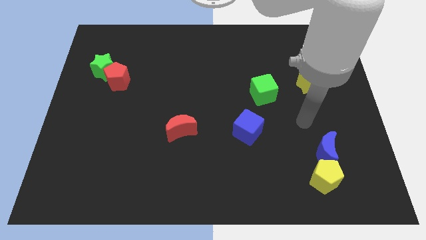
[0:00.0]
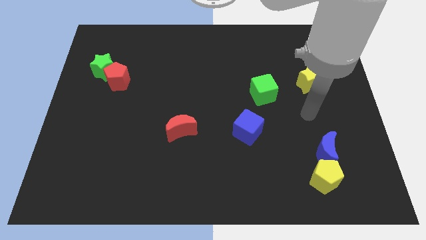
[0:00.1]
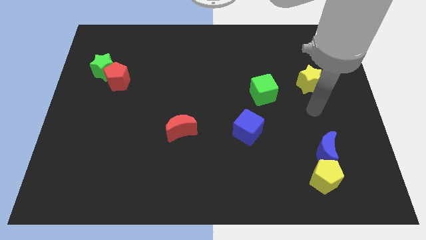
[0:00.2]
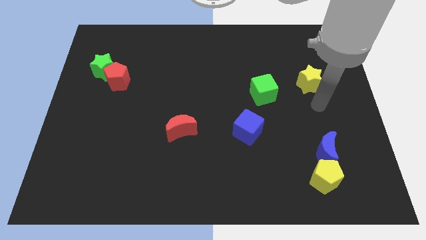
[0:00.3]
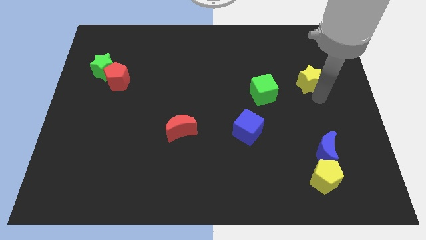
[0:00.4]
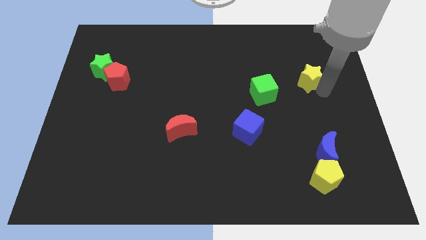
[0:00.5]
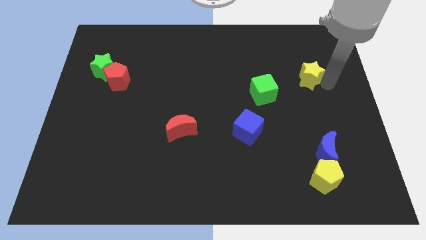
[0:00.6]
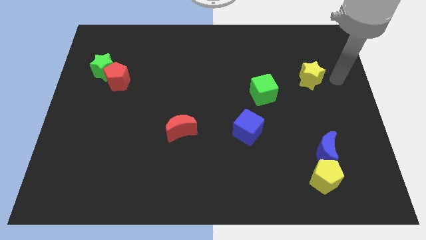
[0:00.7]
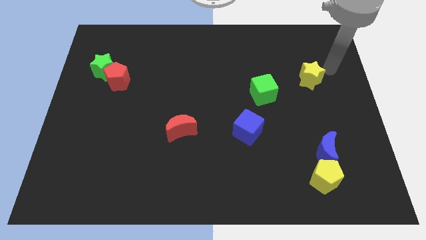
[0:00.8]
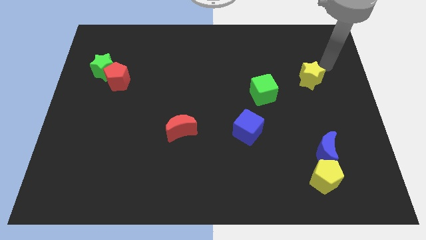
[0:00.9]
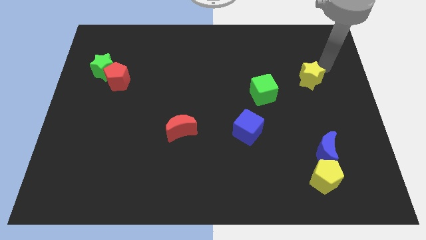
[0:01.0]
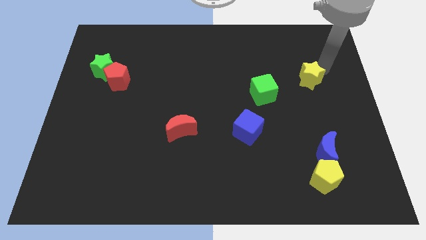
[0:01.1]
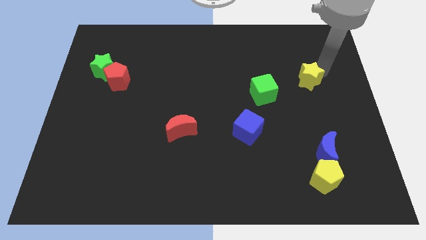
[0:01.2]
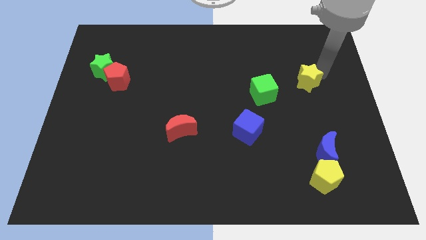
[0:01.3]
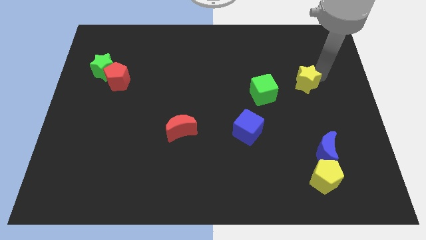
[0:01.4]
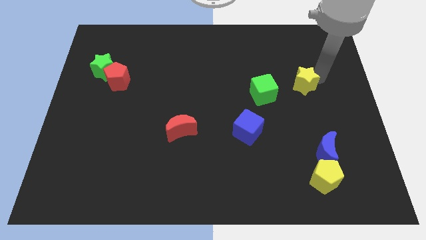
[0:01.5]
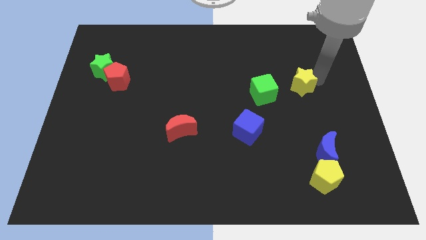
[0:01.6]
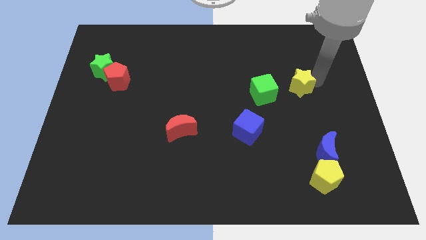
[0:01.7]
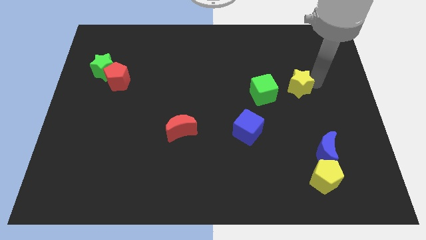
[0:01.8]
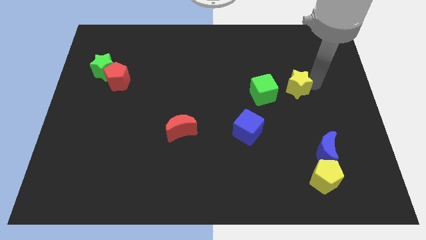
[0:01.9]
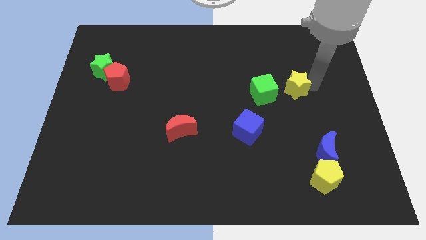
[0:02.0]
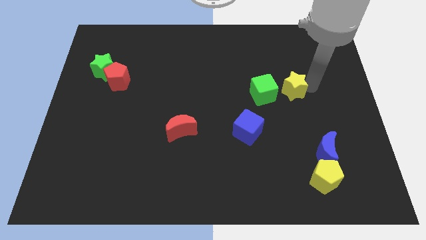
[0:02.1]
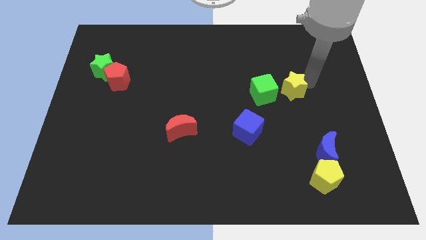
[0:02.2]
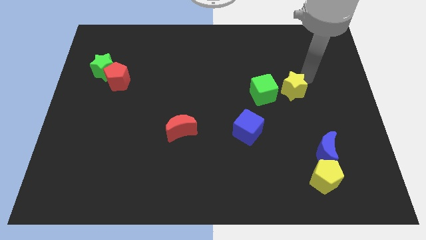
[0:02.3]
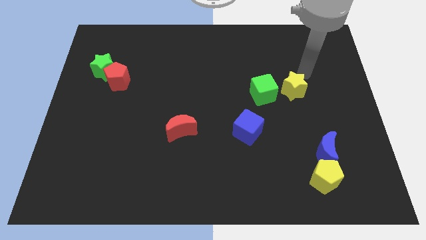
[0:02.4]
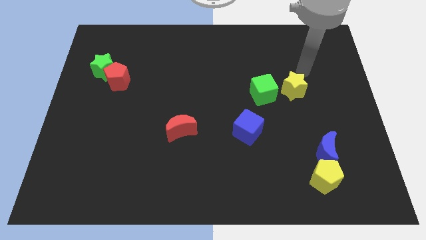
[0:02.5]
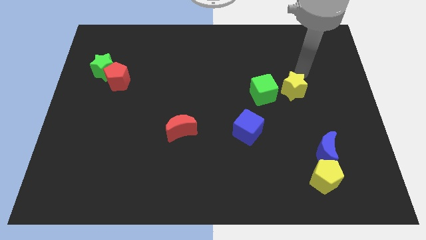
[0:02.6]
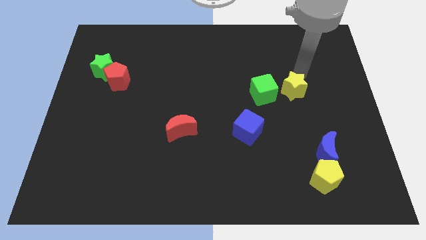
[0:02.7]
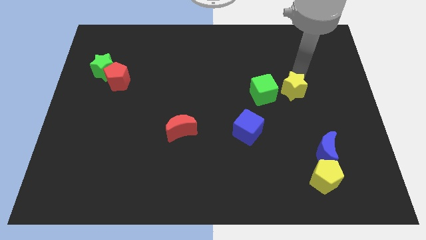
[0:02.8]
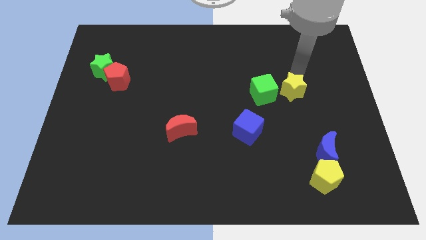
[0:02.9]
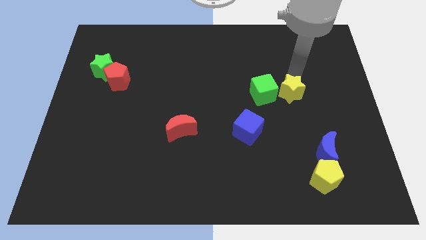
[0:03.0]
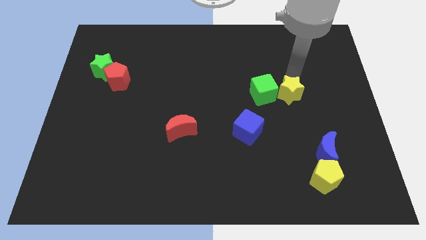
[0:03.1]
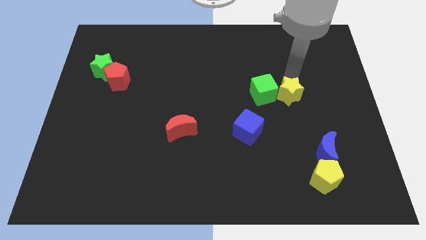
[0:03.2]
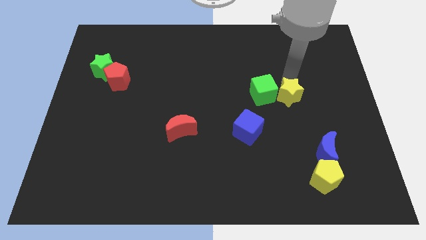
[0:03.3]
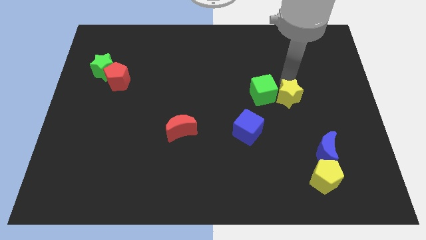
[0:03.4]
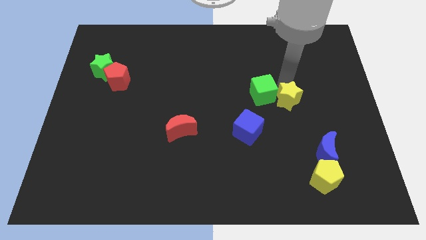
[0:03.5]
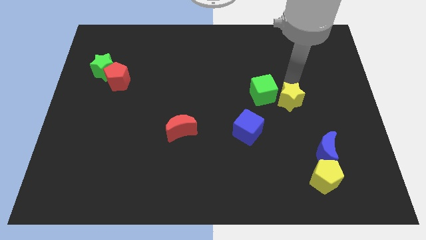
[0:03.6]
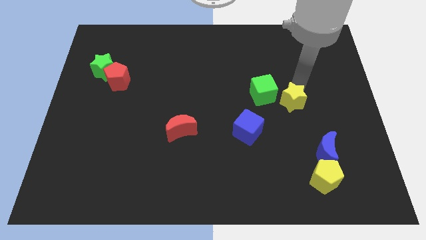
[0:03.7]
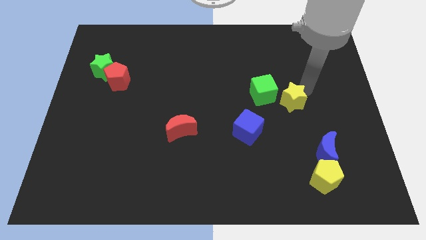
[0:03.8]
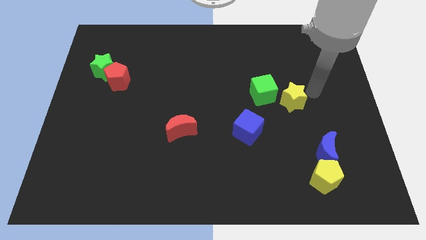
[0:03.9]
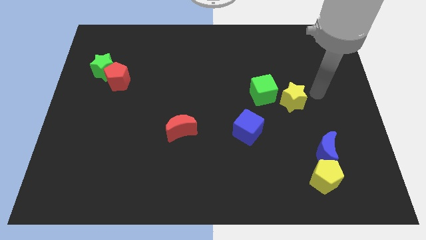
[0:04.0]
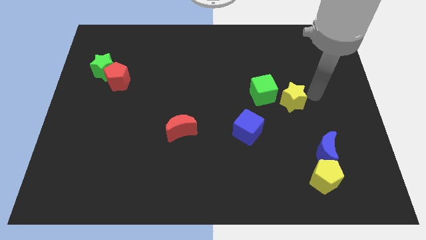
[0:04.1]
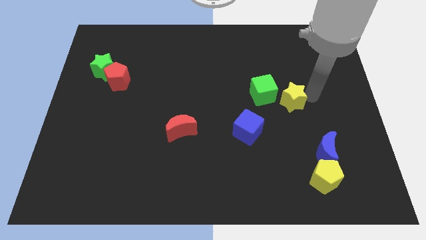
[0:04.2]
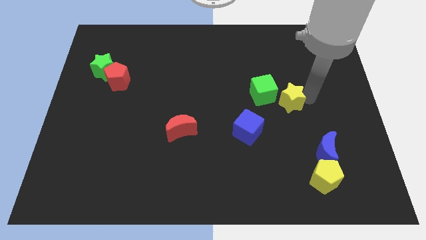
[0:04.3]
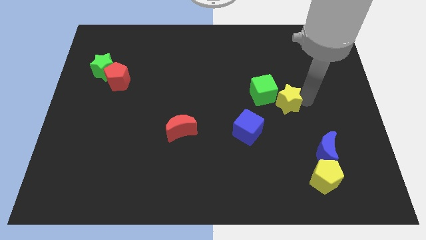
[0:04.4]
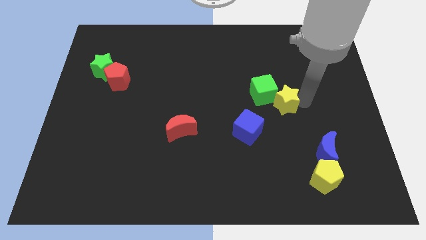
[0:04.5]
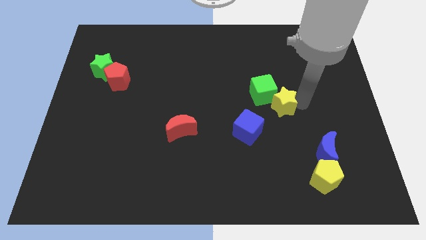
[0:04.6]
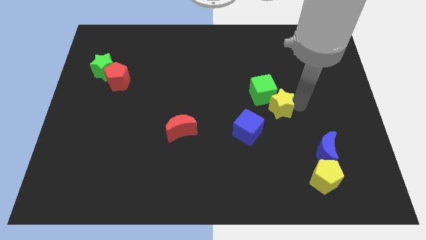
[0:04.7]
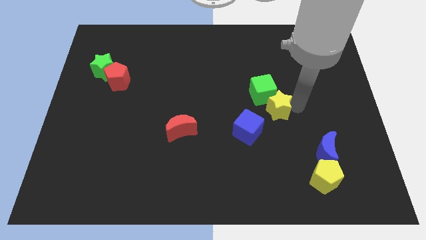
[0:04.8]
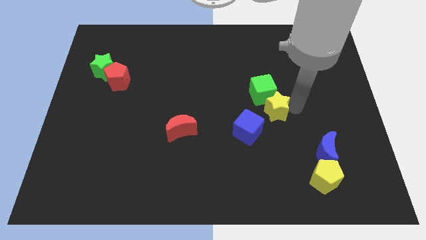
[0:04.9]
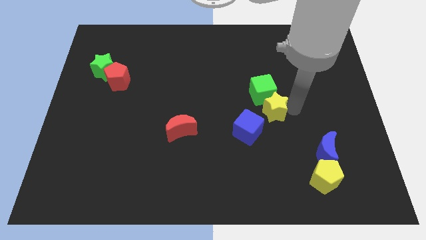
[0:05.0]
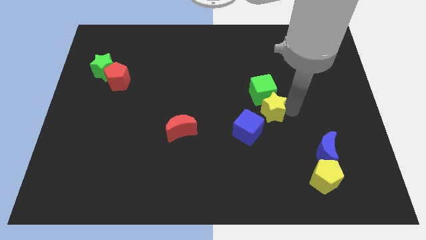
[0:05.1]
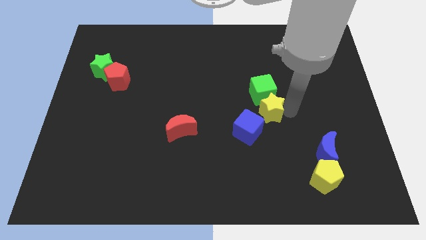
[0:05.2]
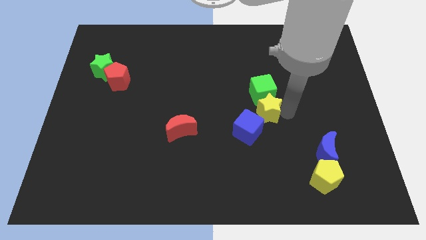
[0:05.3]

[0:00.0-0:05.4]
slide the yellow star to the bottom left of the green cube

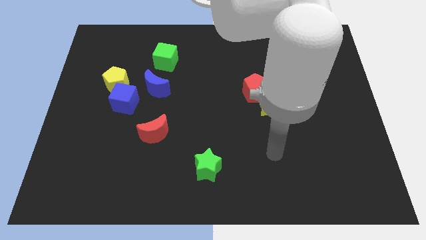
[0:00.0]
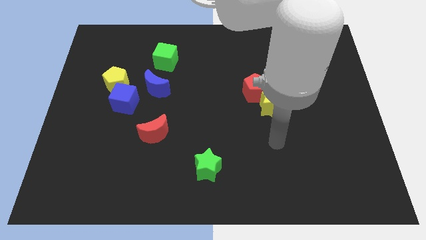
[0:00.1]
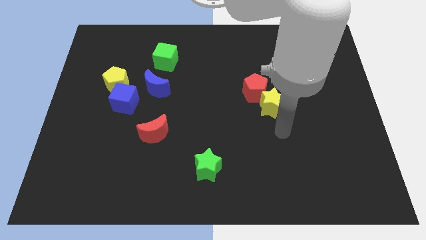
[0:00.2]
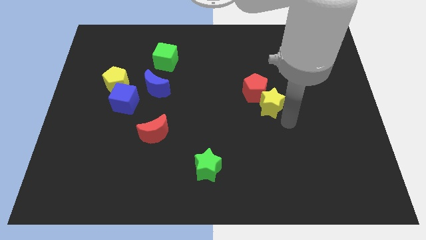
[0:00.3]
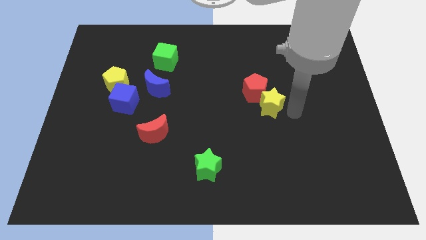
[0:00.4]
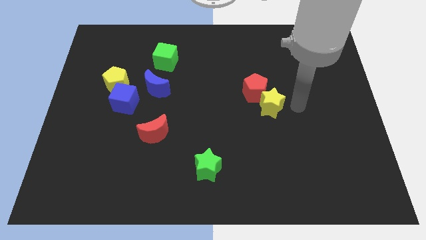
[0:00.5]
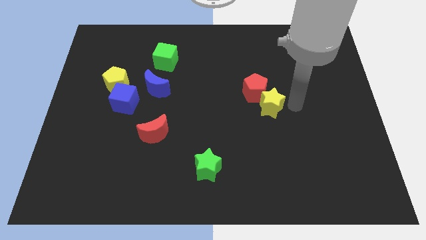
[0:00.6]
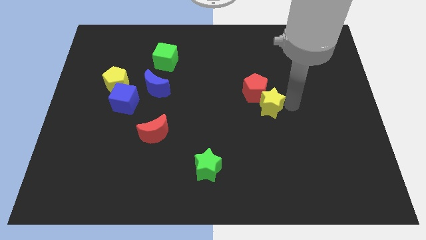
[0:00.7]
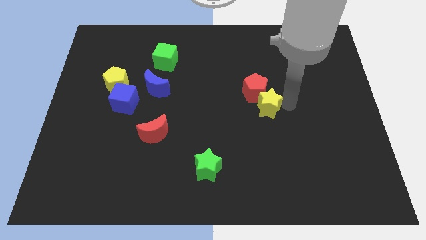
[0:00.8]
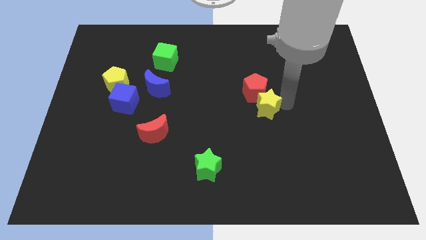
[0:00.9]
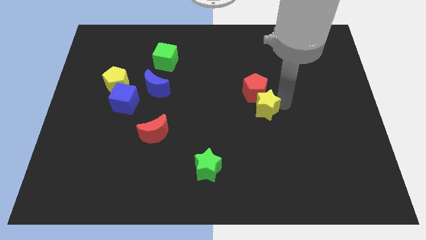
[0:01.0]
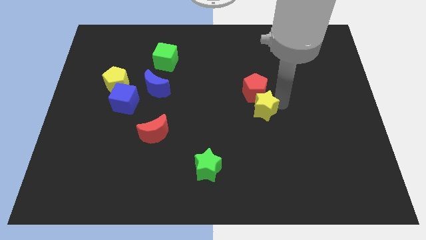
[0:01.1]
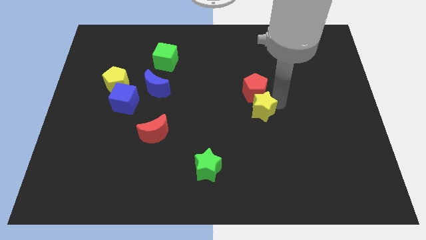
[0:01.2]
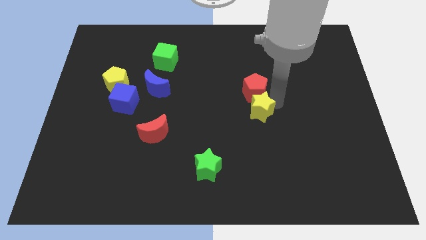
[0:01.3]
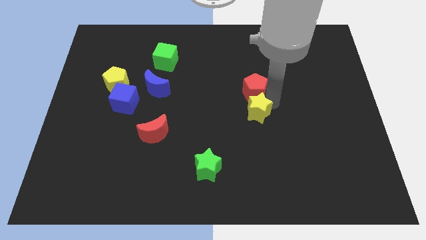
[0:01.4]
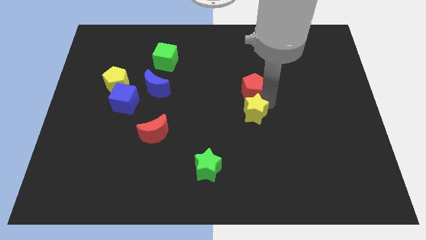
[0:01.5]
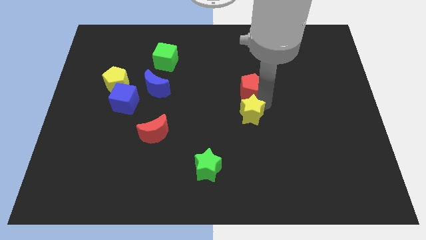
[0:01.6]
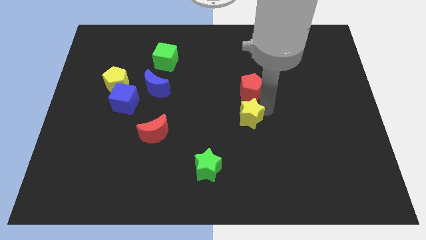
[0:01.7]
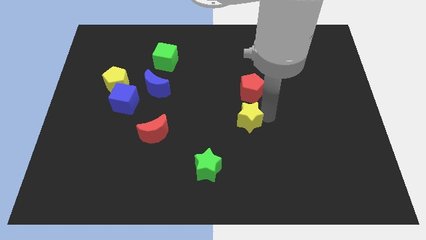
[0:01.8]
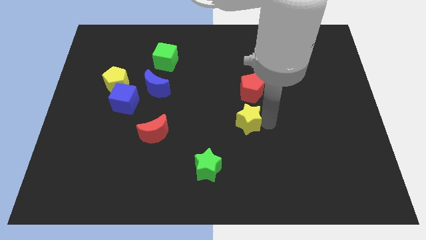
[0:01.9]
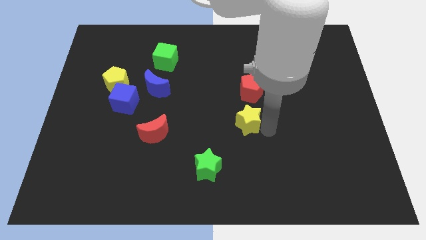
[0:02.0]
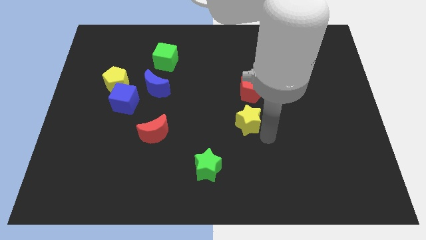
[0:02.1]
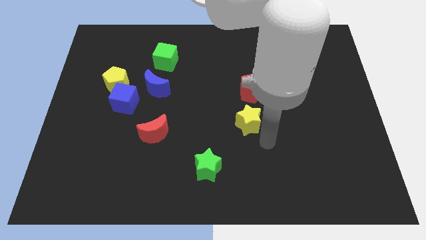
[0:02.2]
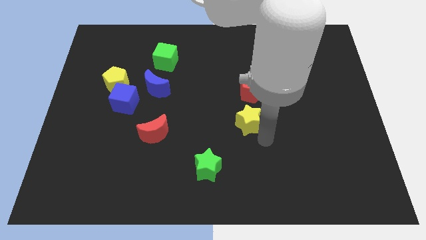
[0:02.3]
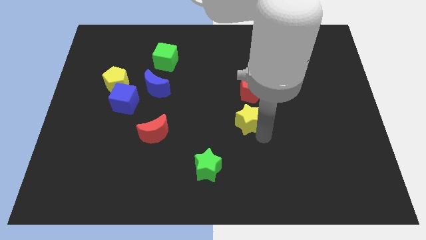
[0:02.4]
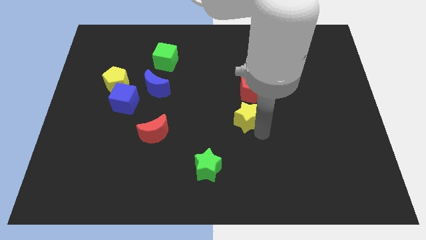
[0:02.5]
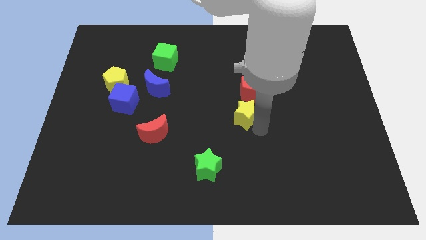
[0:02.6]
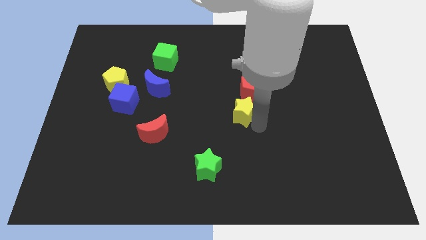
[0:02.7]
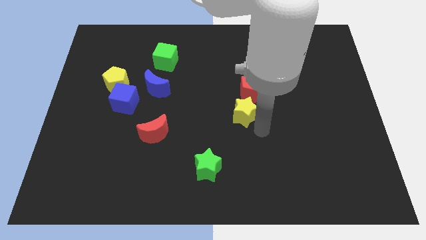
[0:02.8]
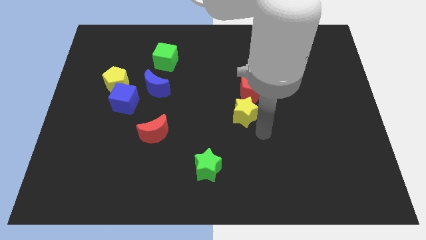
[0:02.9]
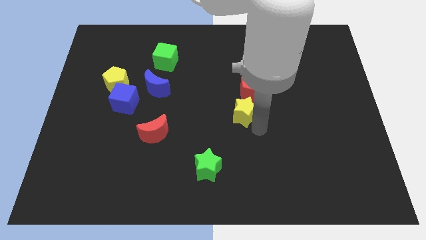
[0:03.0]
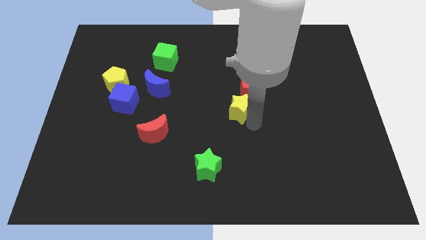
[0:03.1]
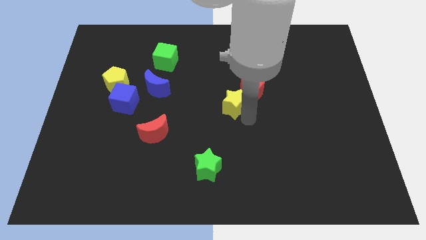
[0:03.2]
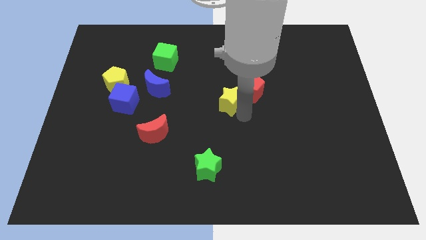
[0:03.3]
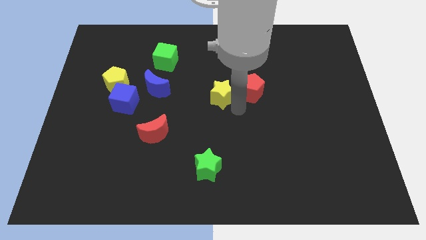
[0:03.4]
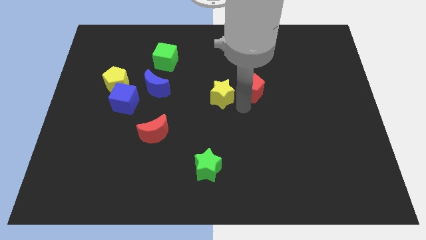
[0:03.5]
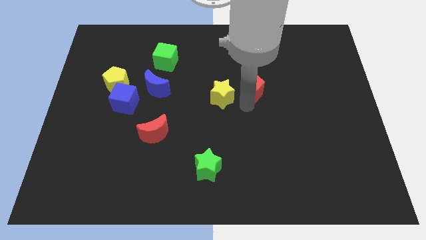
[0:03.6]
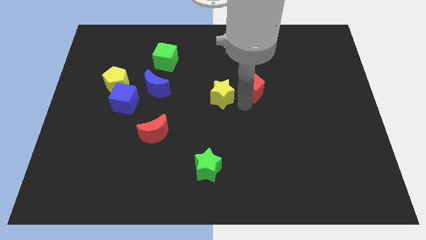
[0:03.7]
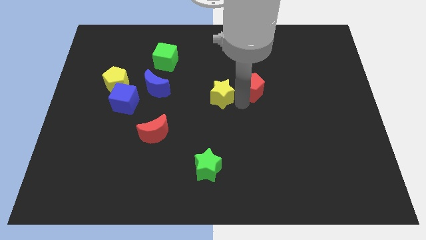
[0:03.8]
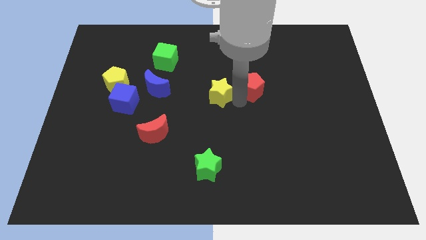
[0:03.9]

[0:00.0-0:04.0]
put the yellow star right of the blue moon
